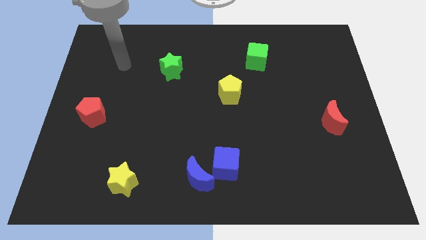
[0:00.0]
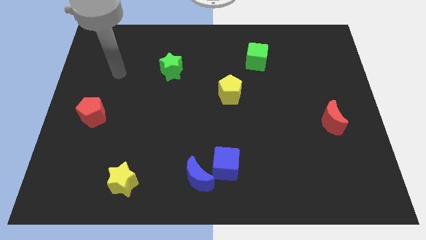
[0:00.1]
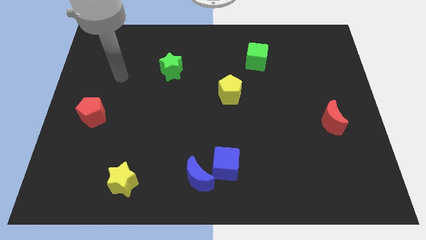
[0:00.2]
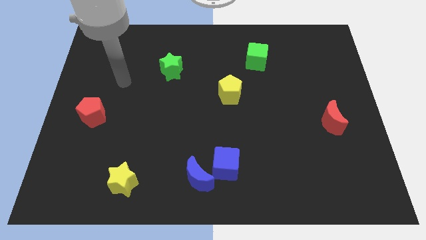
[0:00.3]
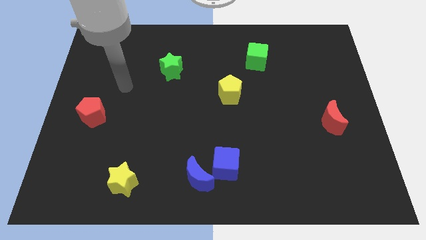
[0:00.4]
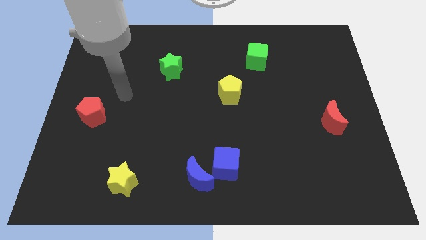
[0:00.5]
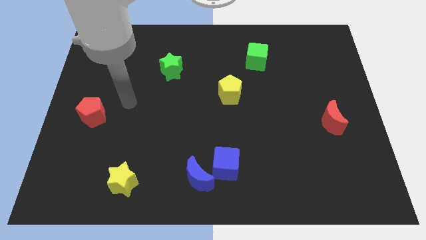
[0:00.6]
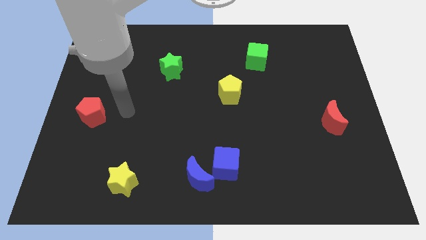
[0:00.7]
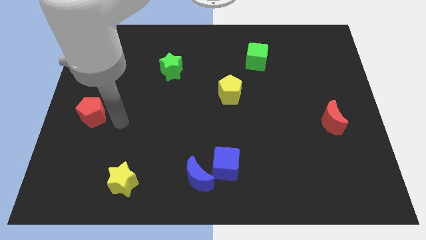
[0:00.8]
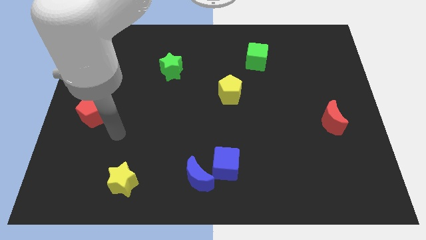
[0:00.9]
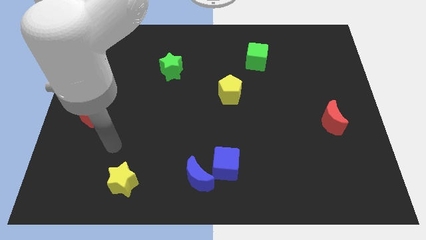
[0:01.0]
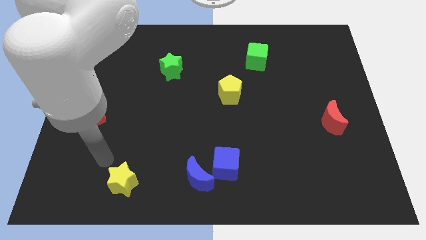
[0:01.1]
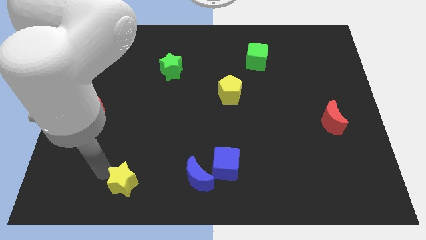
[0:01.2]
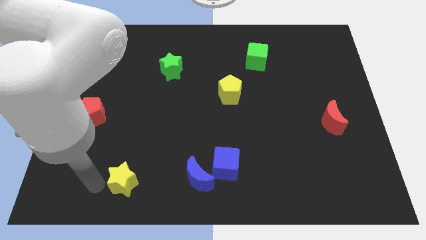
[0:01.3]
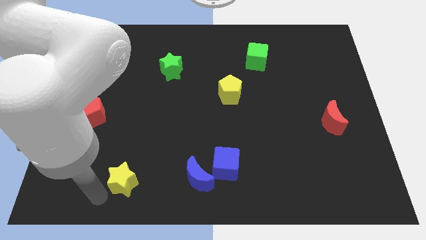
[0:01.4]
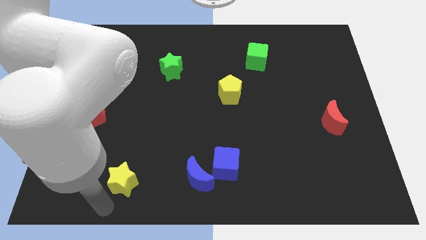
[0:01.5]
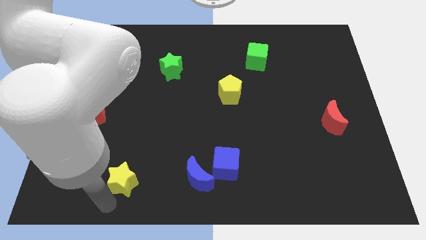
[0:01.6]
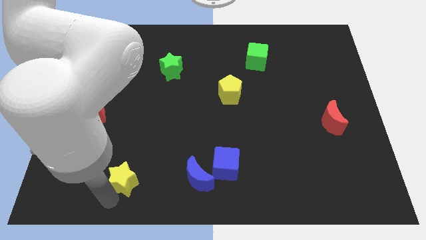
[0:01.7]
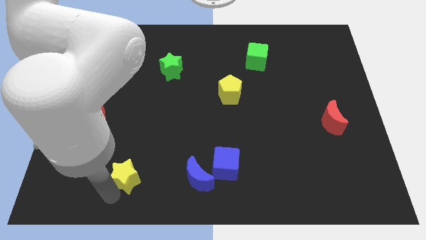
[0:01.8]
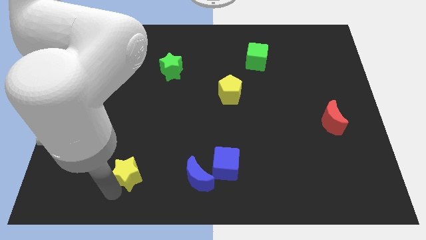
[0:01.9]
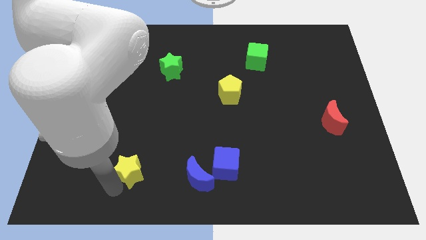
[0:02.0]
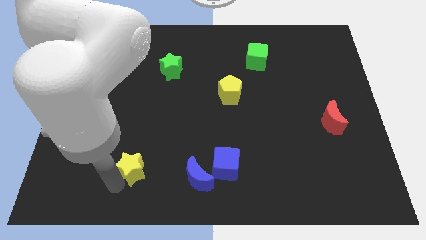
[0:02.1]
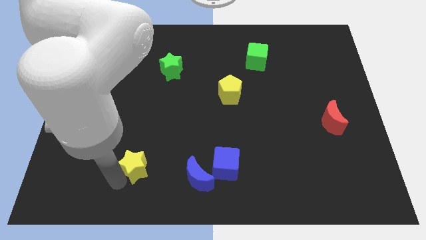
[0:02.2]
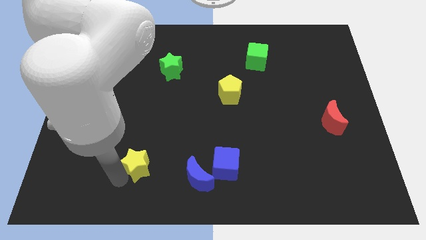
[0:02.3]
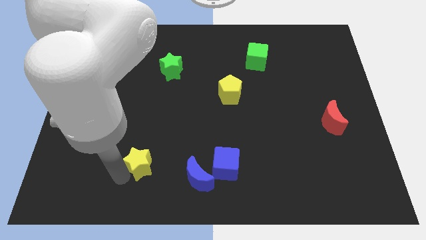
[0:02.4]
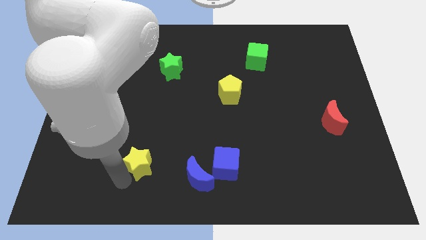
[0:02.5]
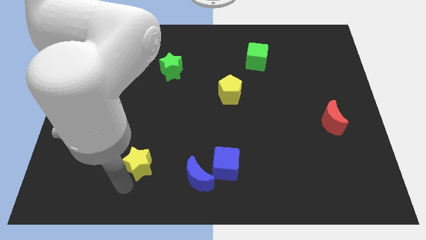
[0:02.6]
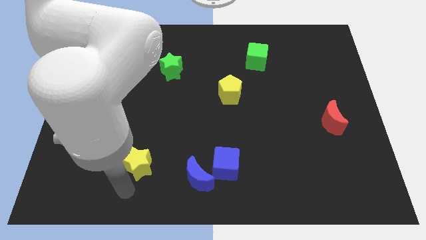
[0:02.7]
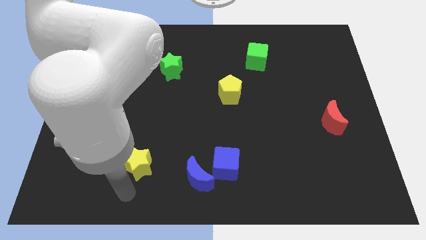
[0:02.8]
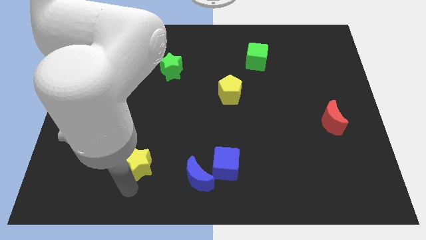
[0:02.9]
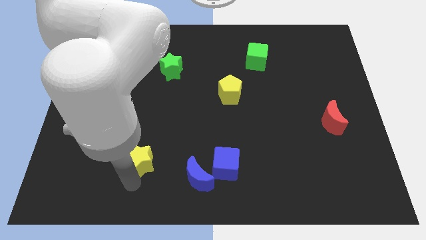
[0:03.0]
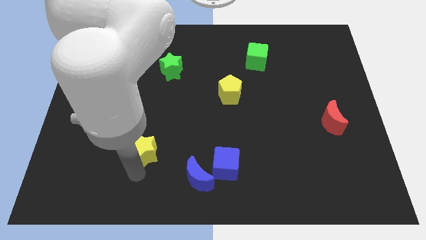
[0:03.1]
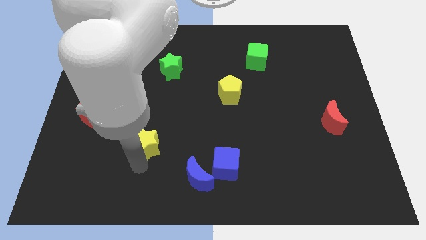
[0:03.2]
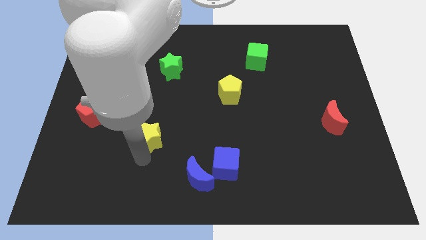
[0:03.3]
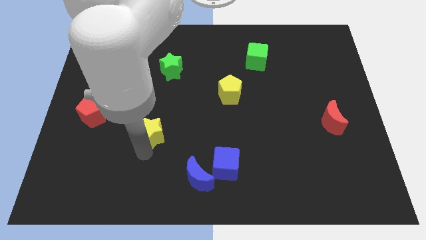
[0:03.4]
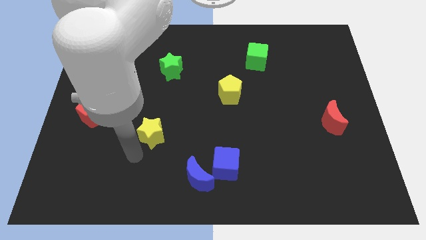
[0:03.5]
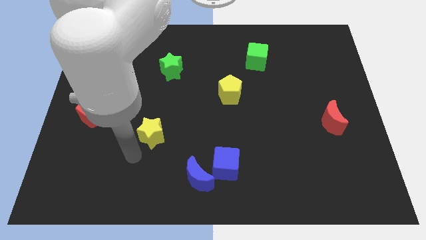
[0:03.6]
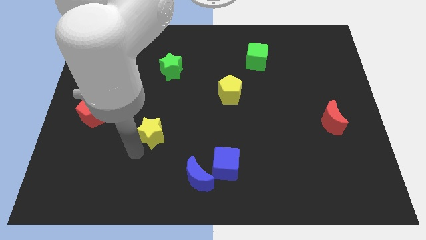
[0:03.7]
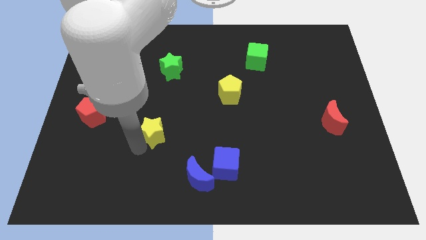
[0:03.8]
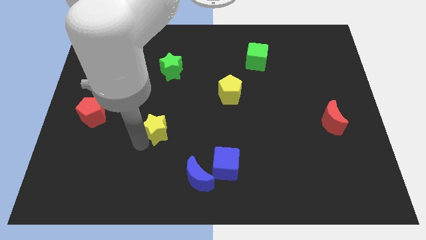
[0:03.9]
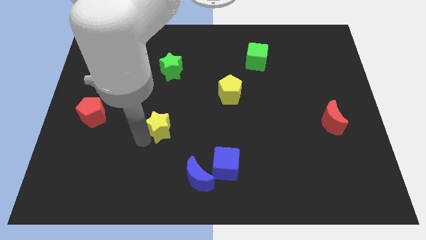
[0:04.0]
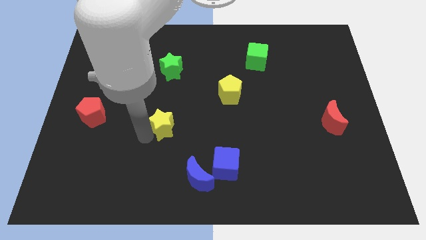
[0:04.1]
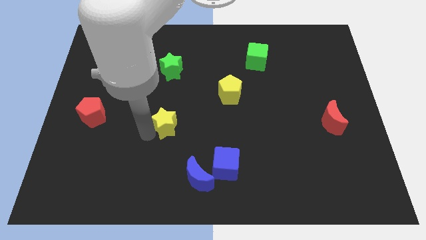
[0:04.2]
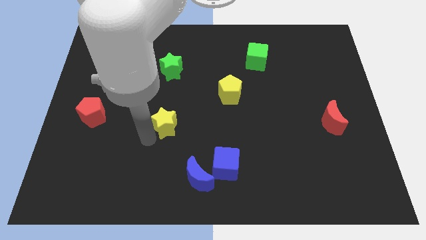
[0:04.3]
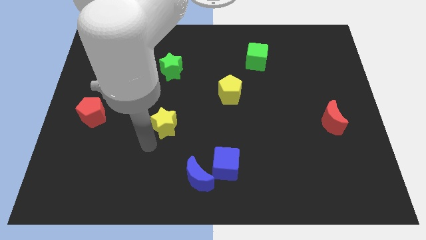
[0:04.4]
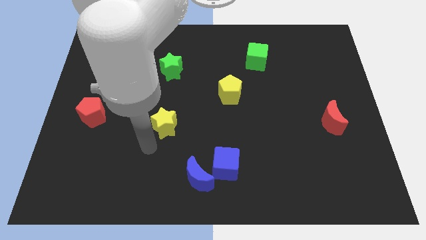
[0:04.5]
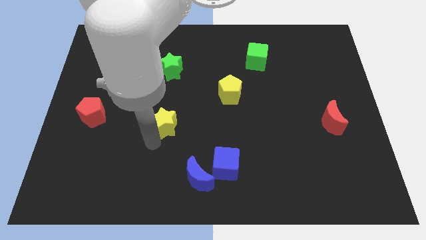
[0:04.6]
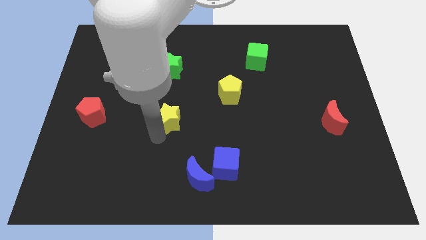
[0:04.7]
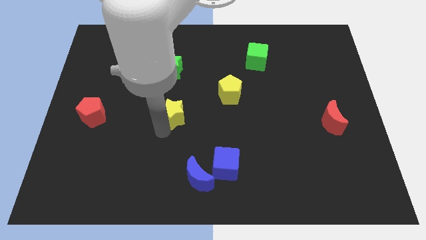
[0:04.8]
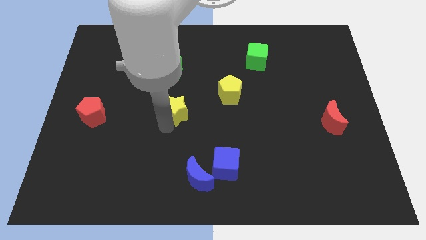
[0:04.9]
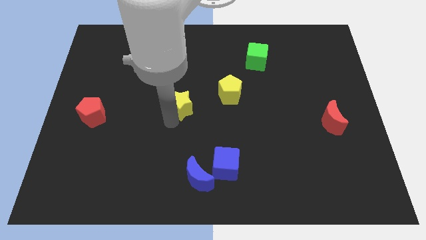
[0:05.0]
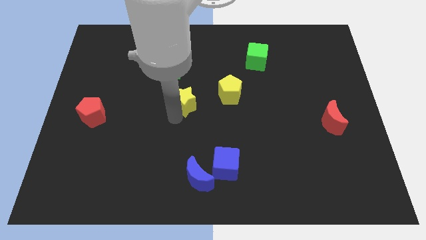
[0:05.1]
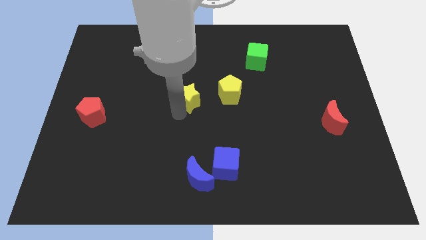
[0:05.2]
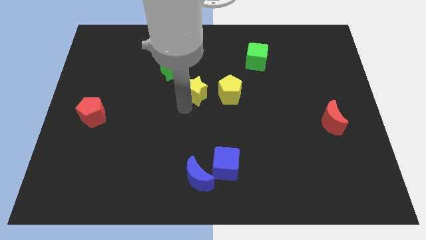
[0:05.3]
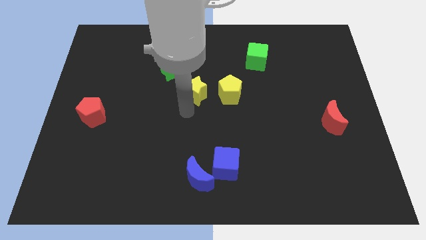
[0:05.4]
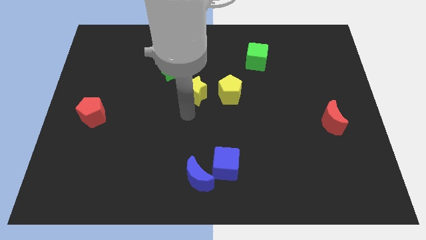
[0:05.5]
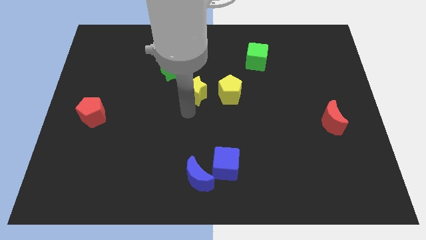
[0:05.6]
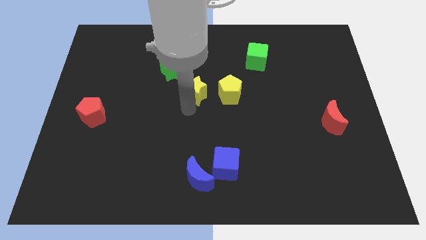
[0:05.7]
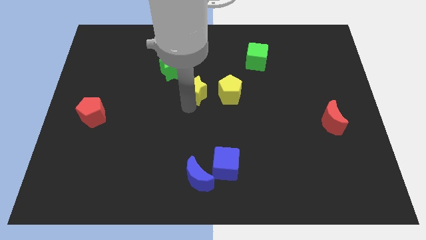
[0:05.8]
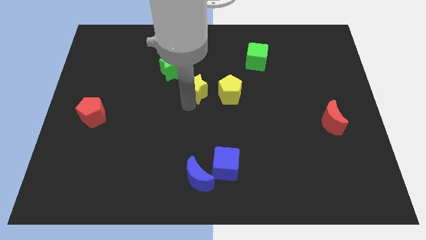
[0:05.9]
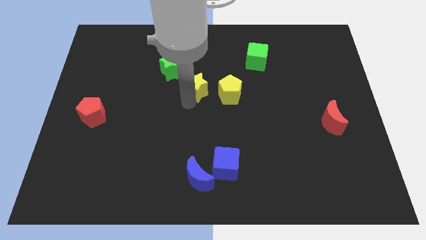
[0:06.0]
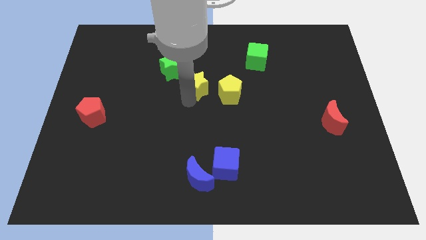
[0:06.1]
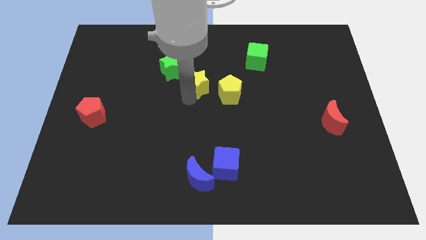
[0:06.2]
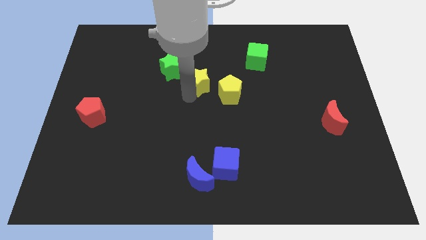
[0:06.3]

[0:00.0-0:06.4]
put the yellow star right of the green star

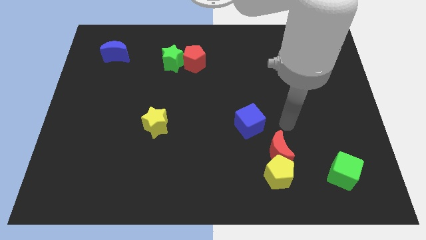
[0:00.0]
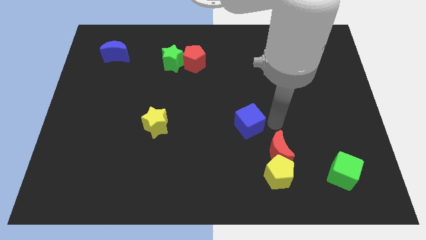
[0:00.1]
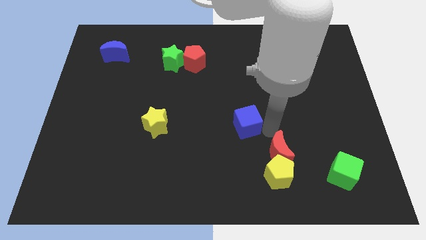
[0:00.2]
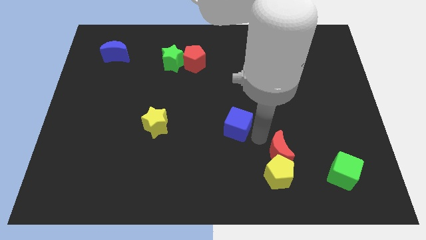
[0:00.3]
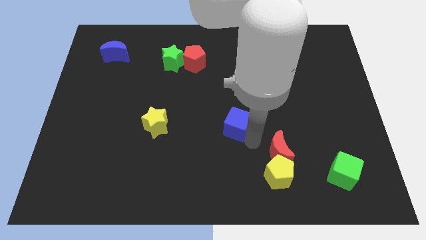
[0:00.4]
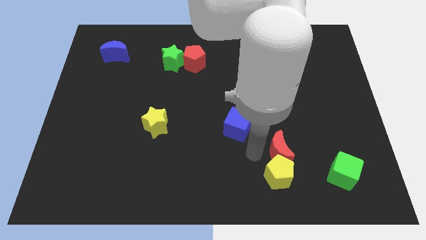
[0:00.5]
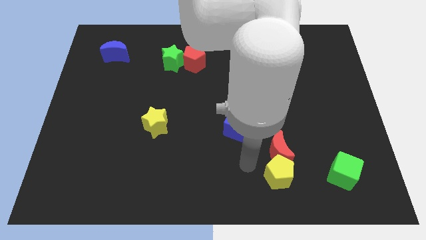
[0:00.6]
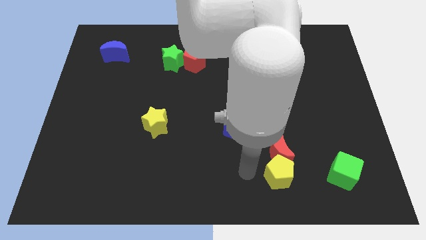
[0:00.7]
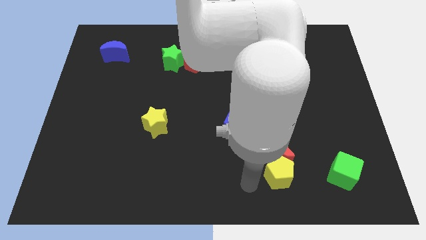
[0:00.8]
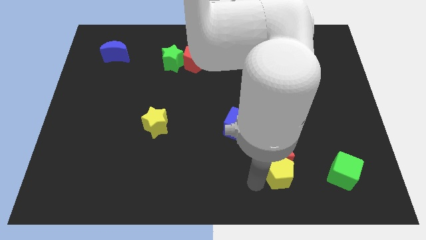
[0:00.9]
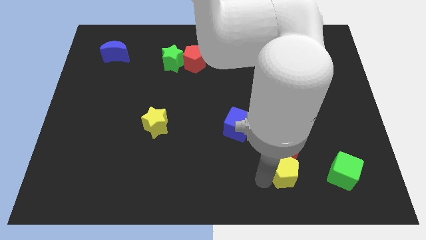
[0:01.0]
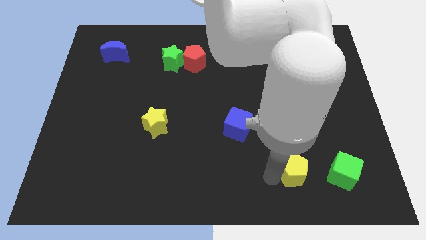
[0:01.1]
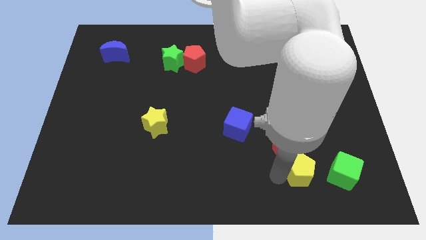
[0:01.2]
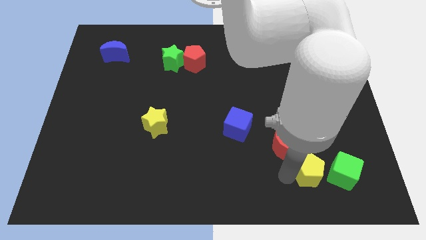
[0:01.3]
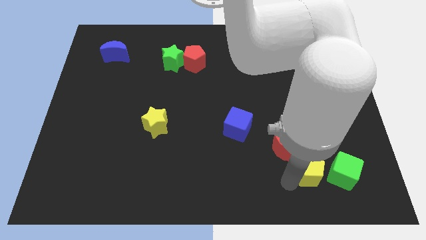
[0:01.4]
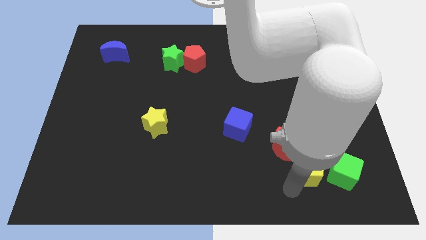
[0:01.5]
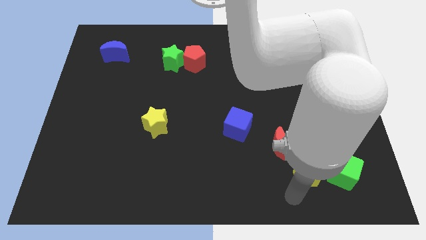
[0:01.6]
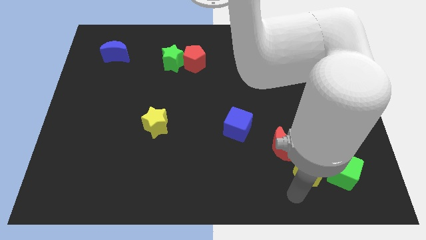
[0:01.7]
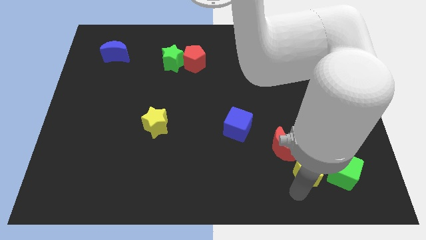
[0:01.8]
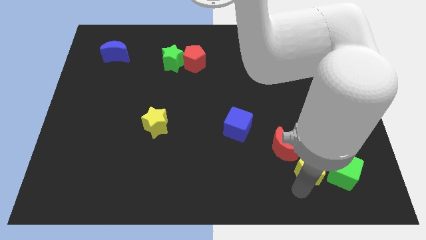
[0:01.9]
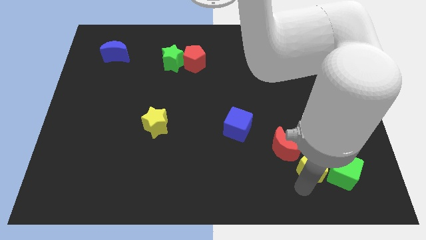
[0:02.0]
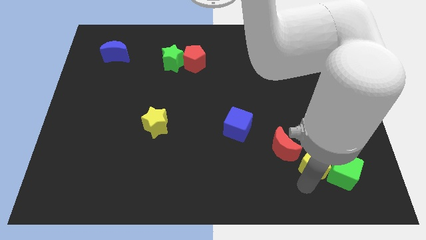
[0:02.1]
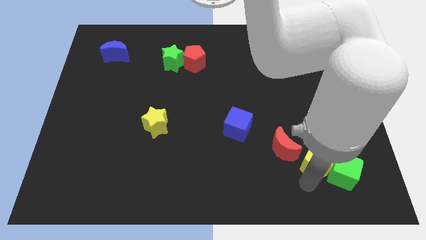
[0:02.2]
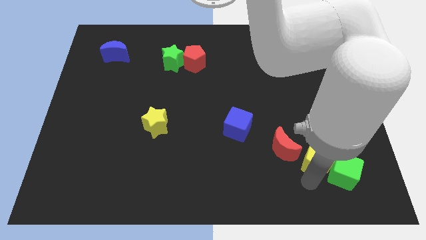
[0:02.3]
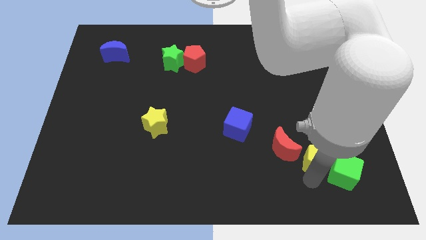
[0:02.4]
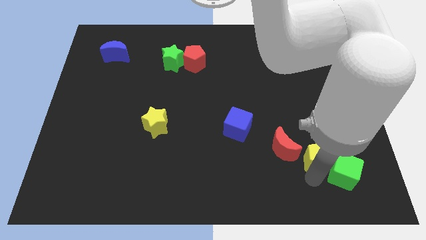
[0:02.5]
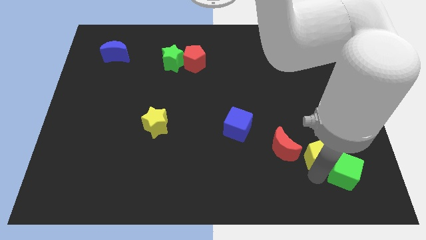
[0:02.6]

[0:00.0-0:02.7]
push the yellow pentagon to the top of the green cube
